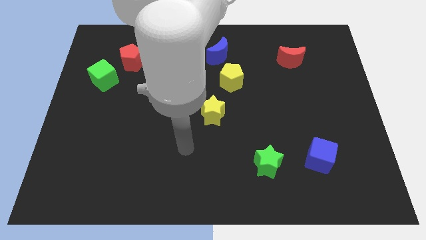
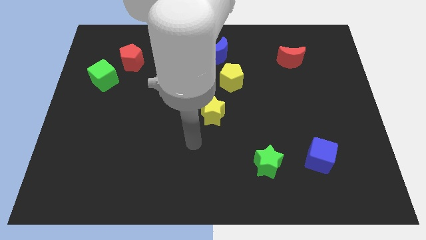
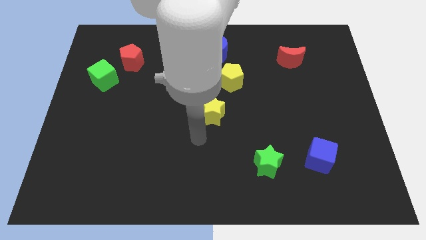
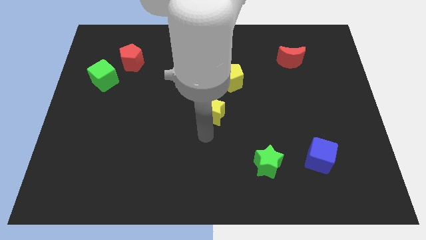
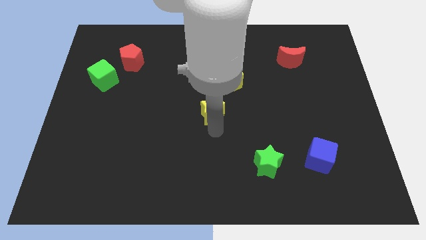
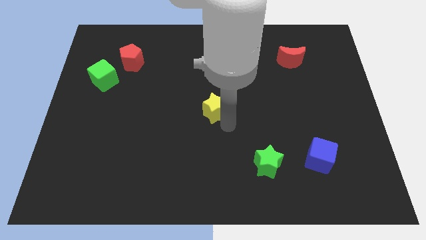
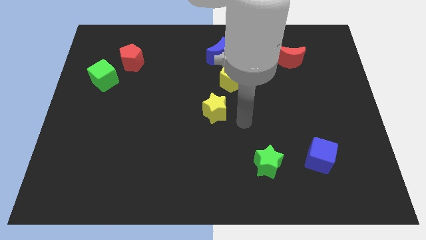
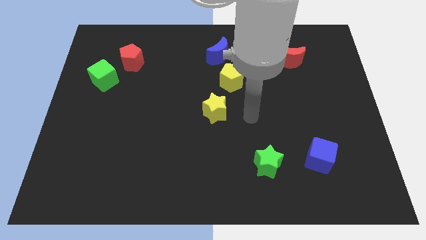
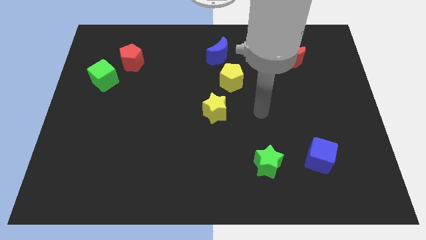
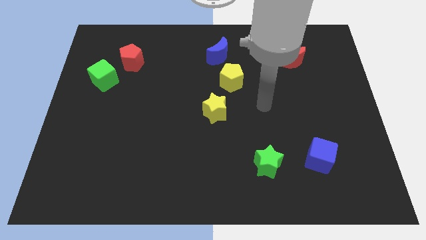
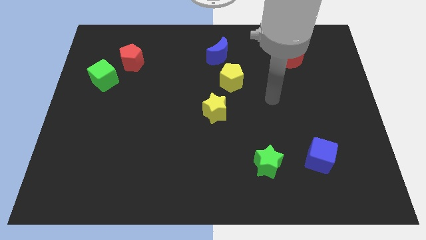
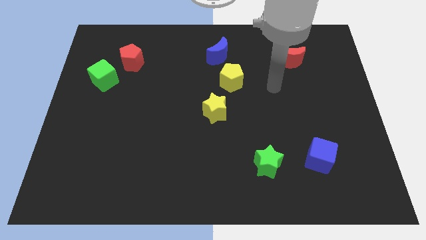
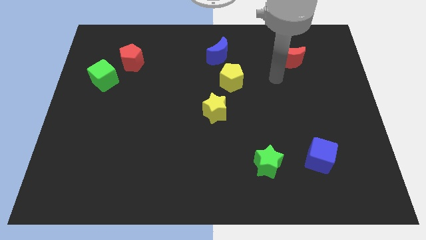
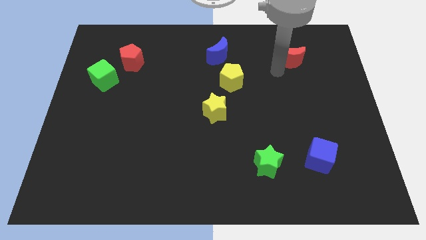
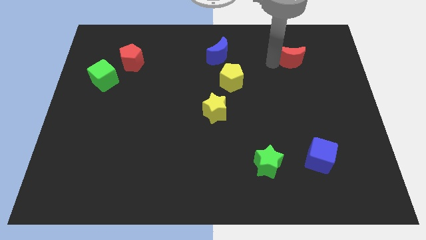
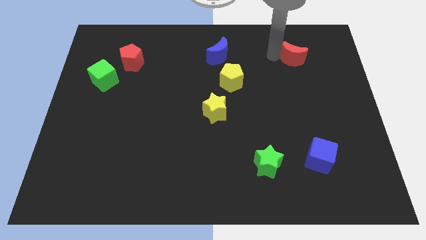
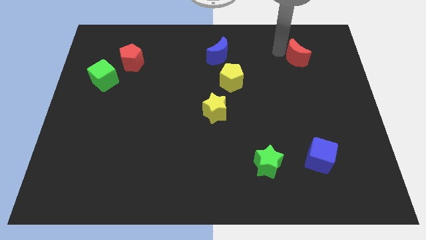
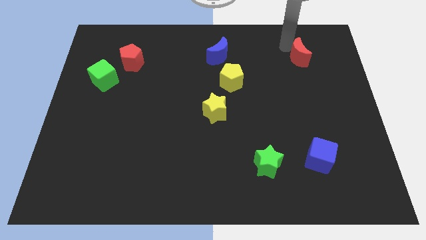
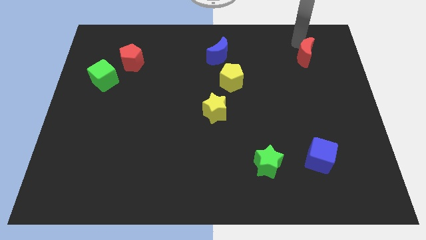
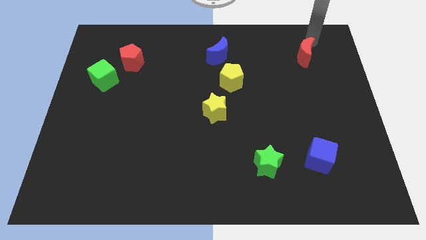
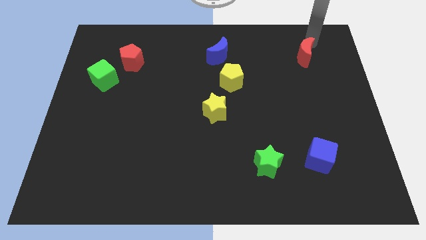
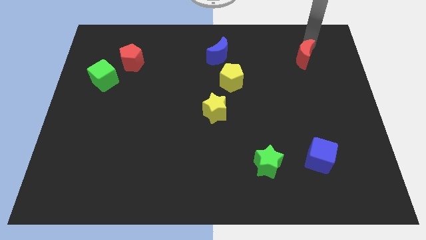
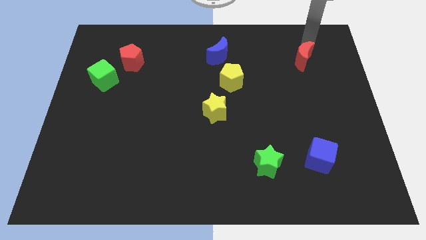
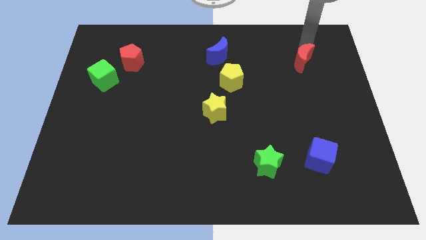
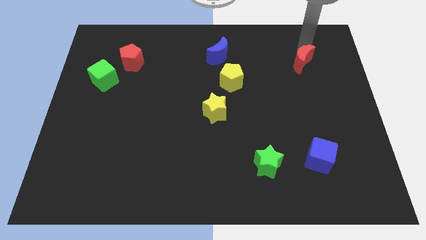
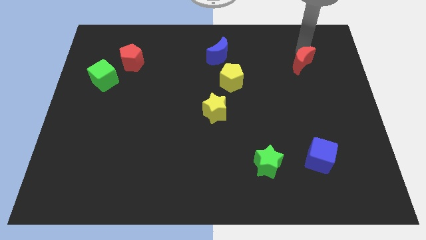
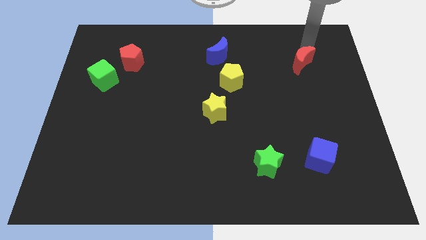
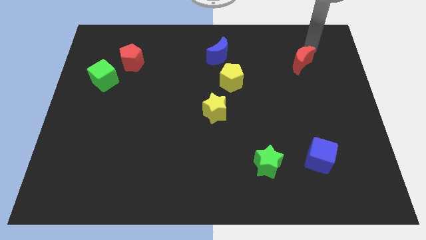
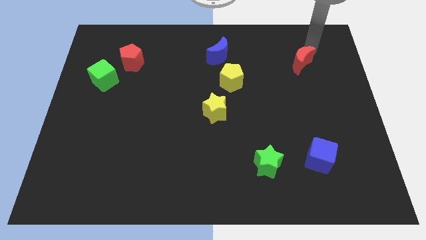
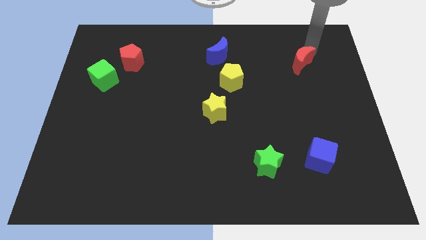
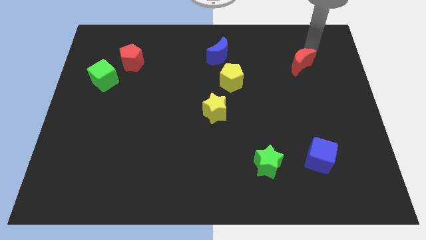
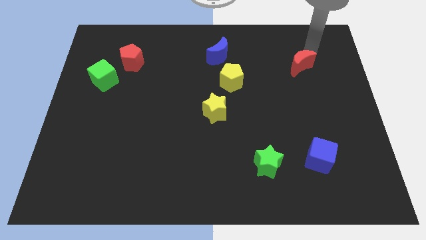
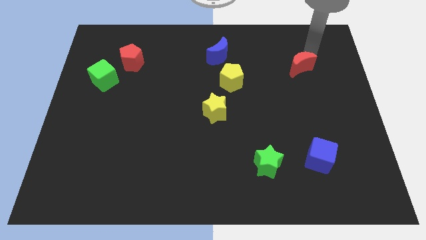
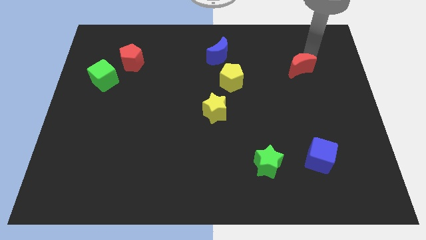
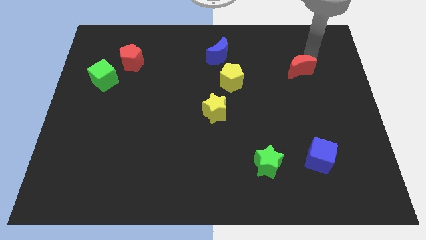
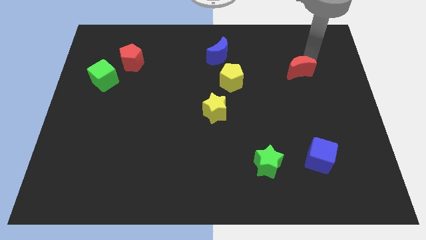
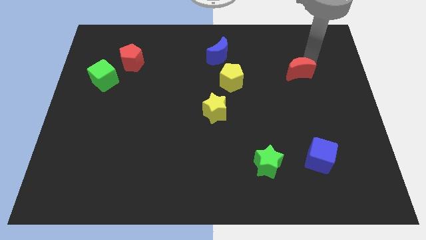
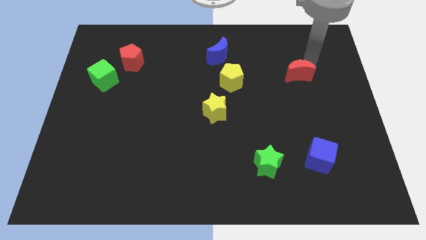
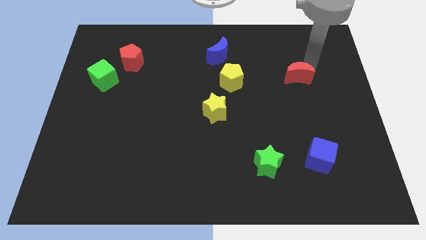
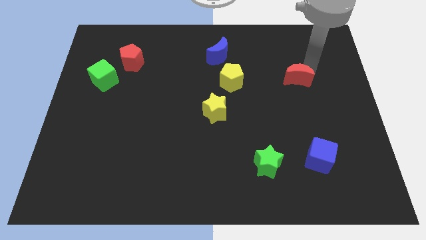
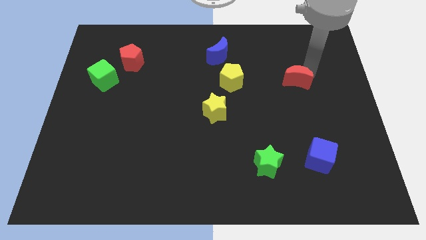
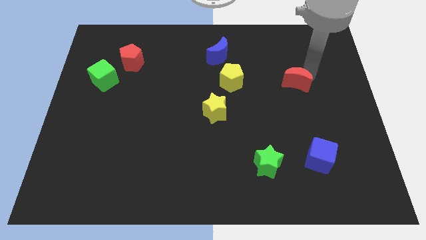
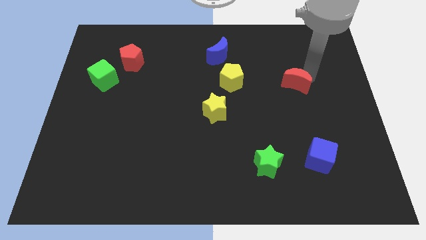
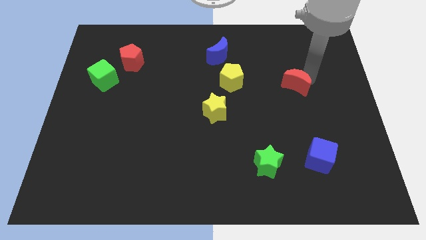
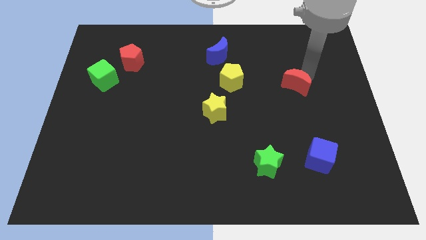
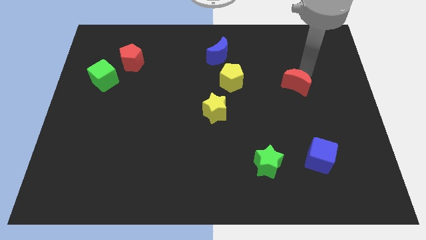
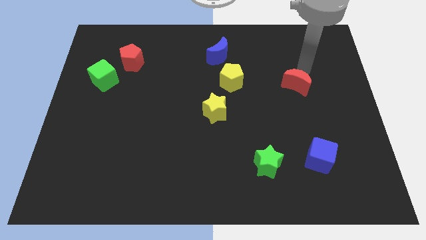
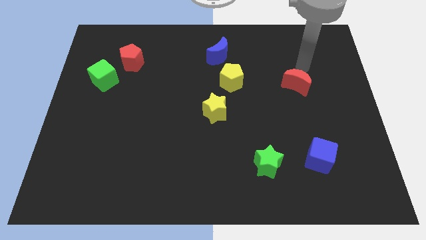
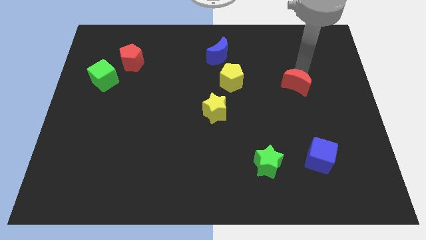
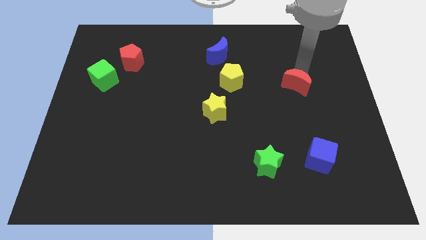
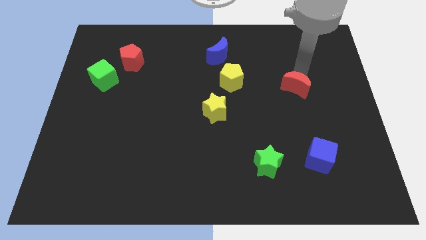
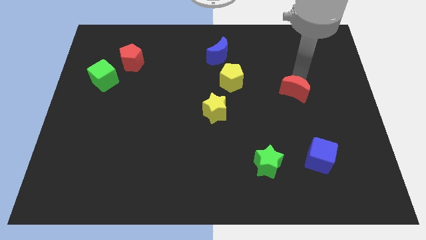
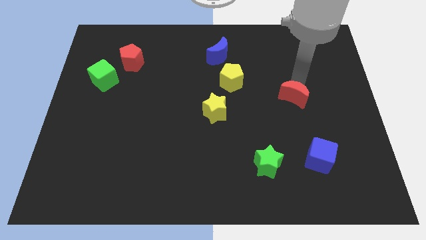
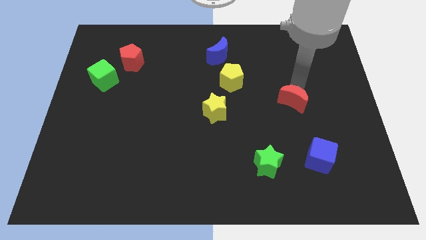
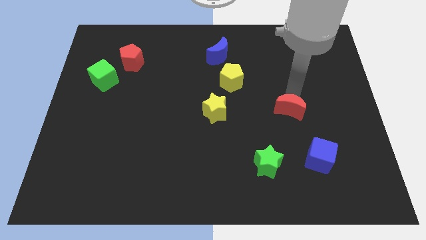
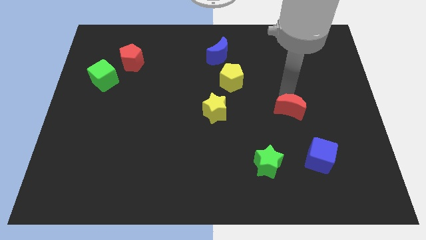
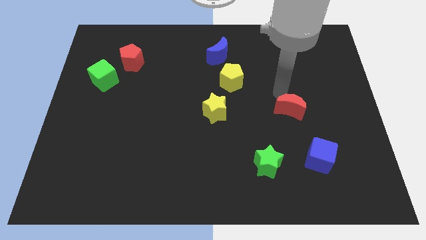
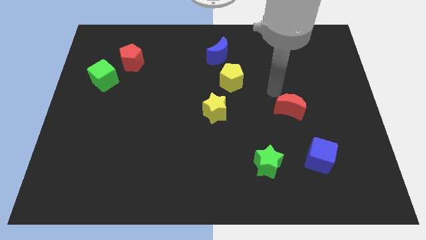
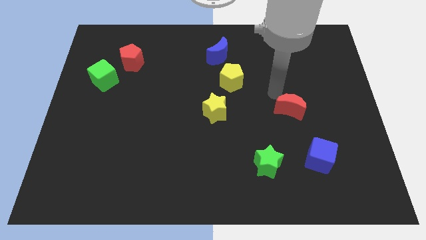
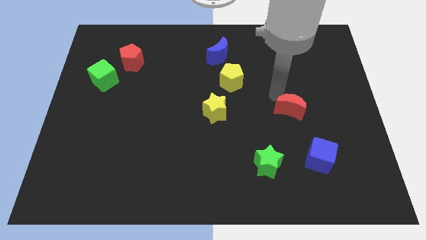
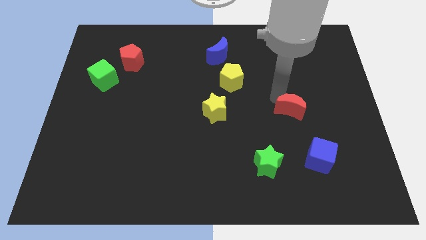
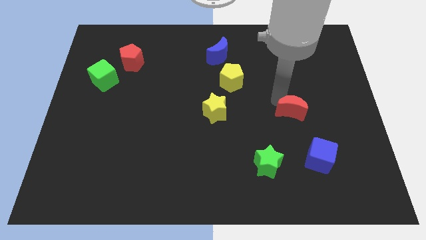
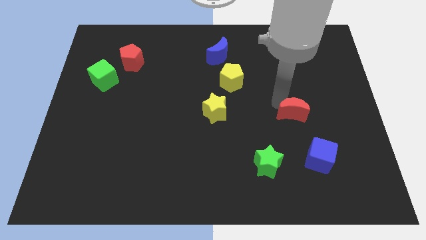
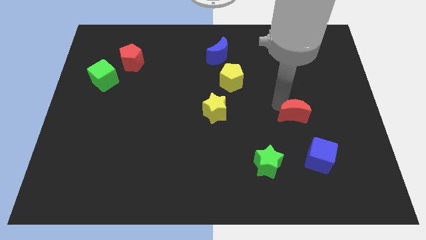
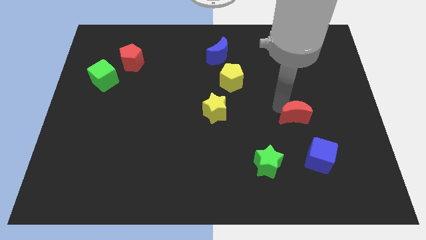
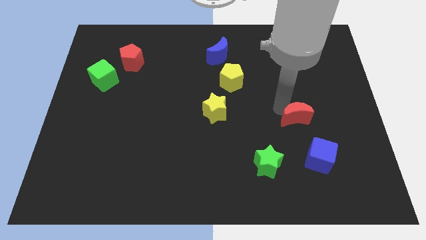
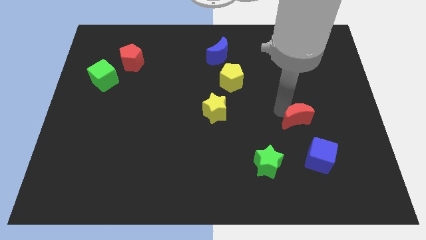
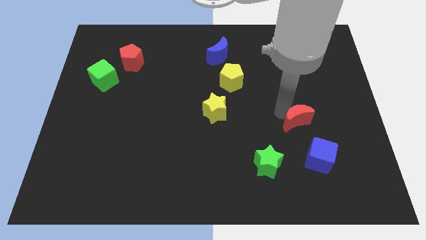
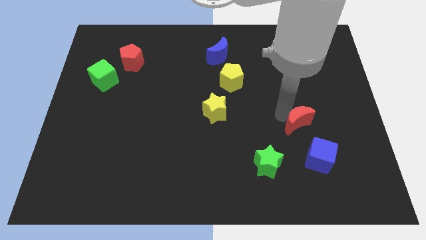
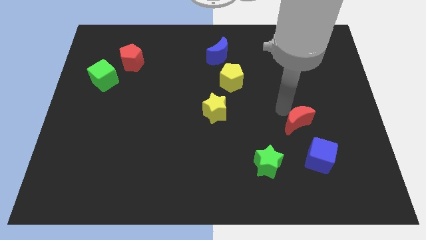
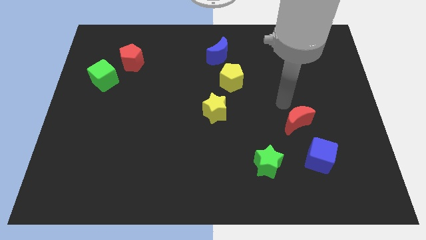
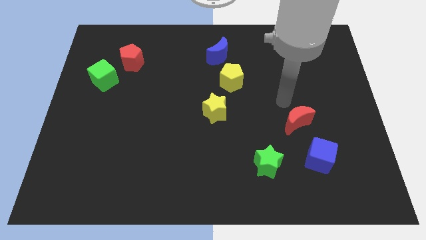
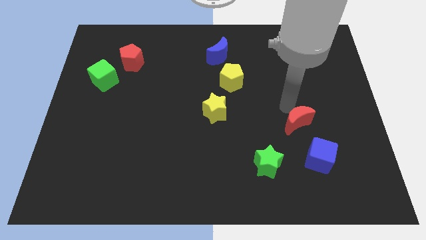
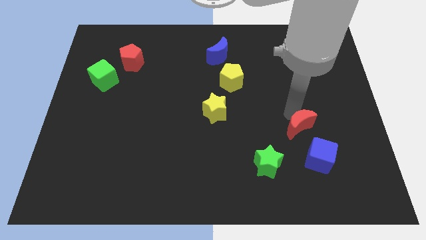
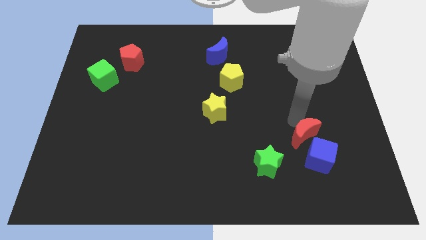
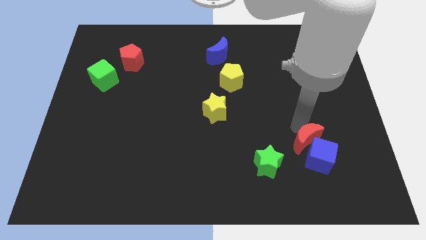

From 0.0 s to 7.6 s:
put the red moon close to the blue cube

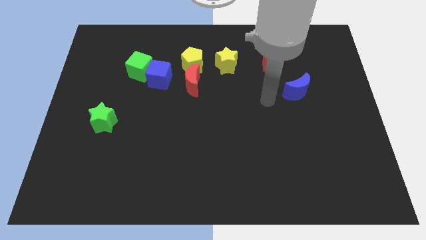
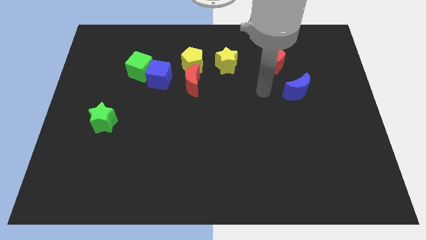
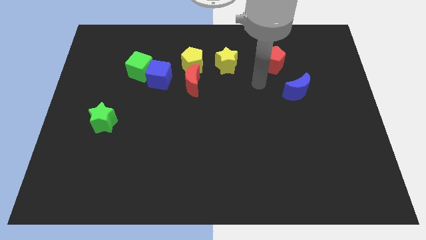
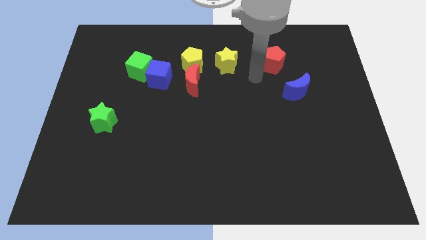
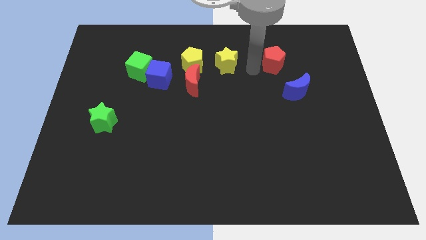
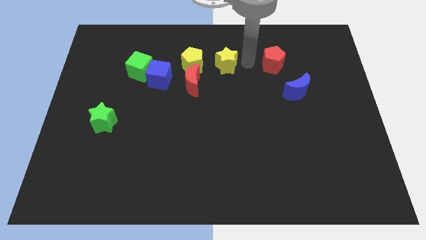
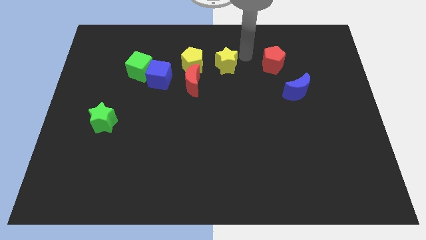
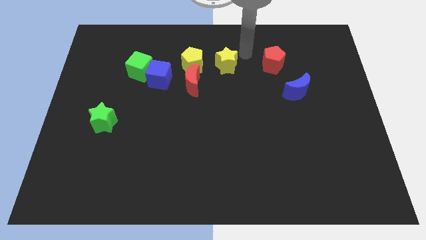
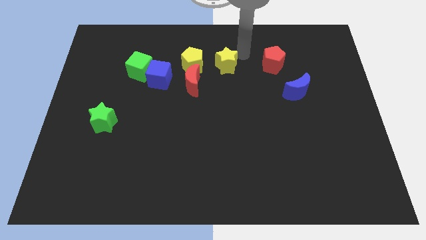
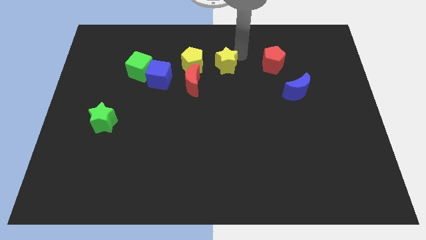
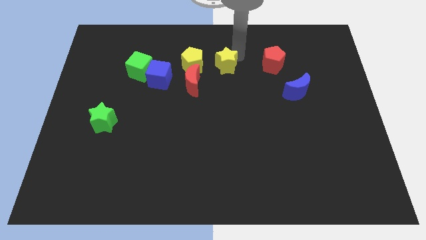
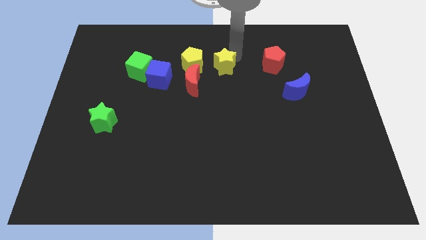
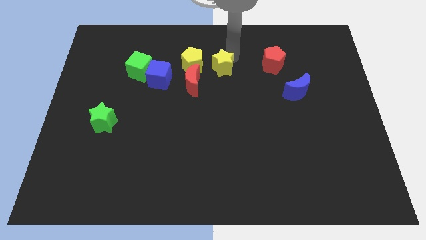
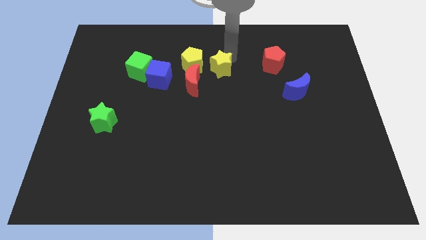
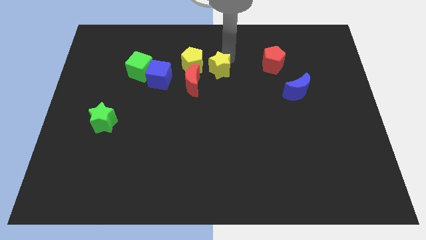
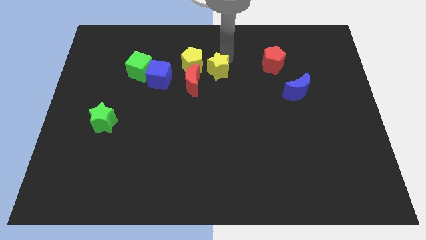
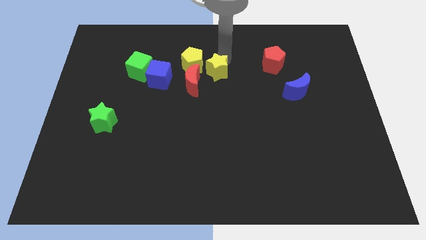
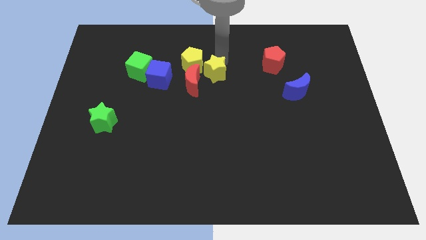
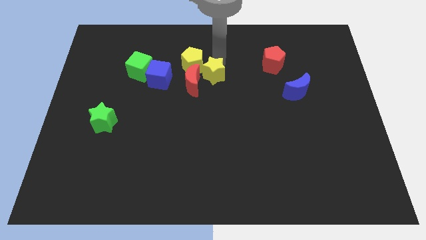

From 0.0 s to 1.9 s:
push the yellow star towards the red moon
